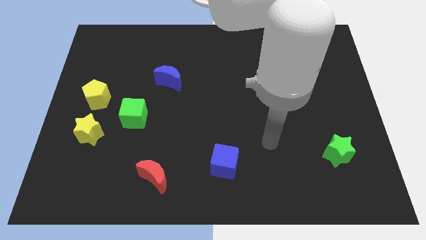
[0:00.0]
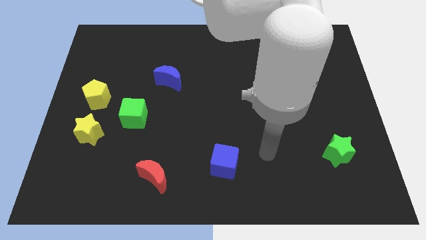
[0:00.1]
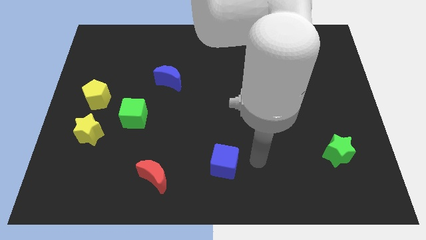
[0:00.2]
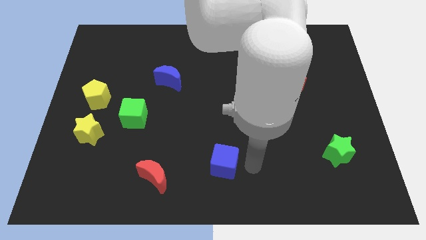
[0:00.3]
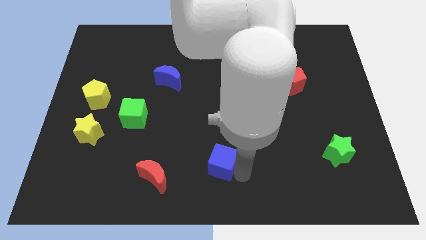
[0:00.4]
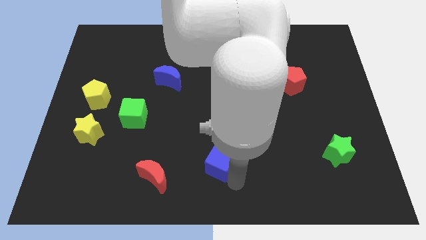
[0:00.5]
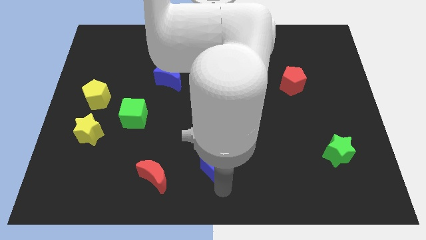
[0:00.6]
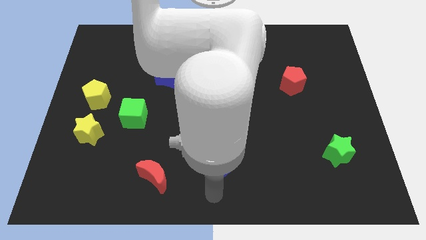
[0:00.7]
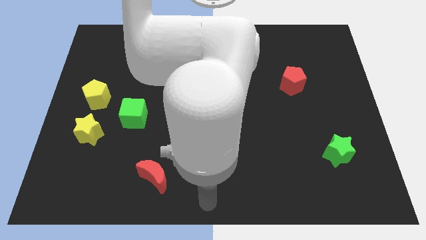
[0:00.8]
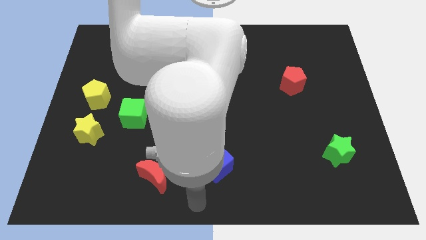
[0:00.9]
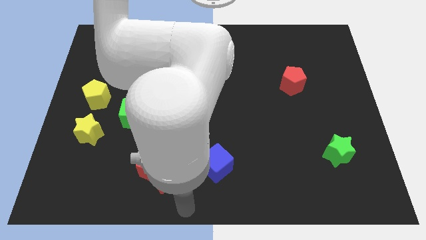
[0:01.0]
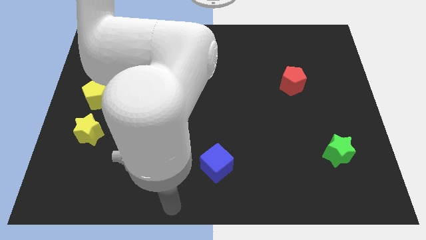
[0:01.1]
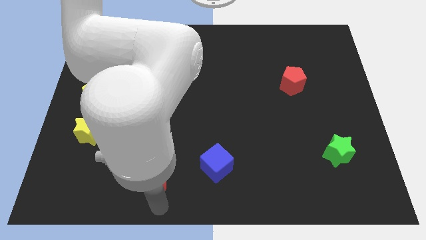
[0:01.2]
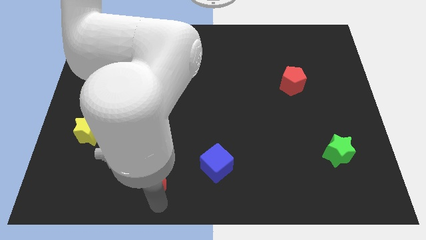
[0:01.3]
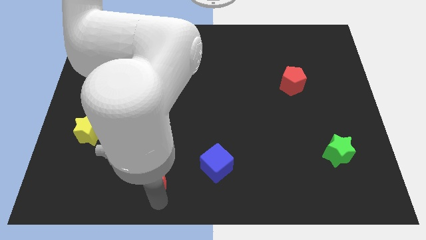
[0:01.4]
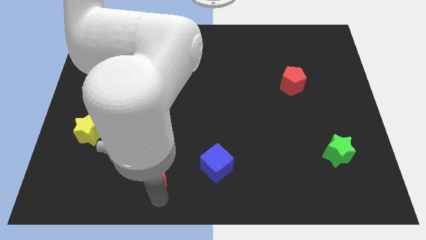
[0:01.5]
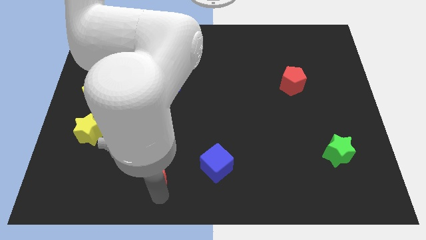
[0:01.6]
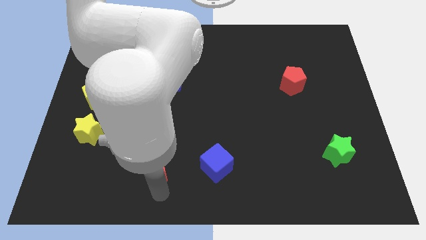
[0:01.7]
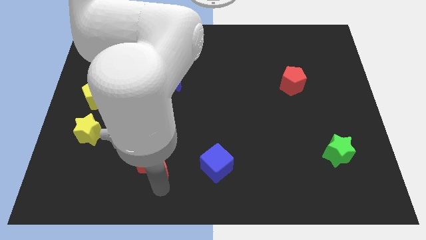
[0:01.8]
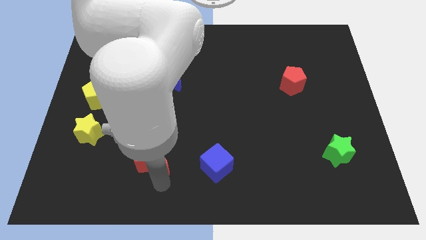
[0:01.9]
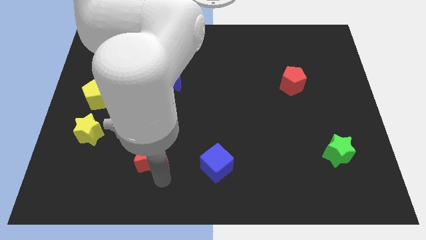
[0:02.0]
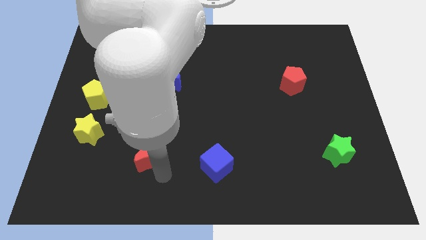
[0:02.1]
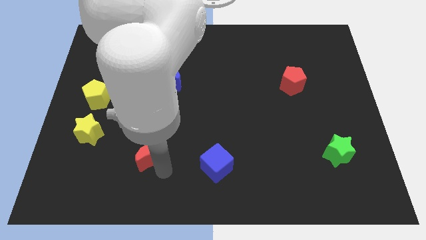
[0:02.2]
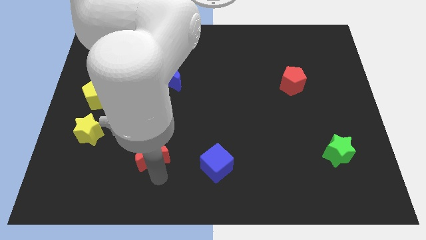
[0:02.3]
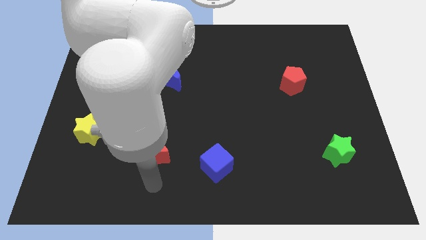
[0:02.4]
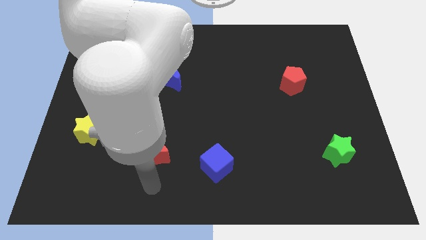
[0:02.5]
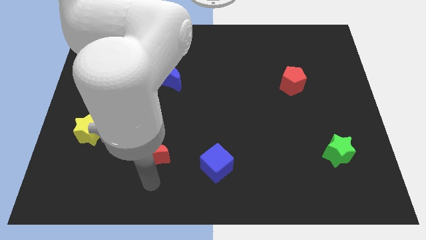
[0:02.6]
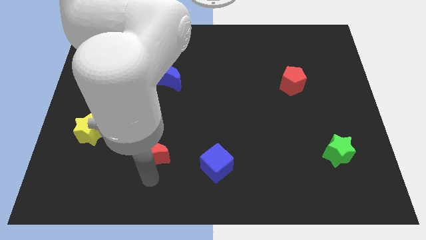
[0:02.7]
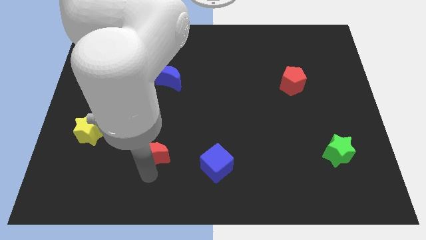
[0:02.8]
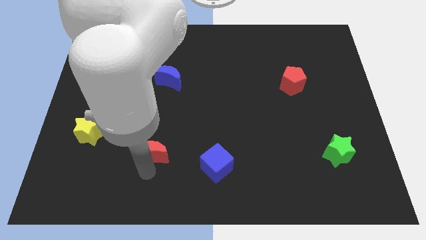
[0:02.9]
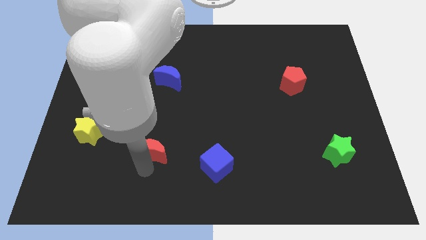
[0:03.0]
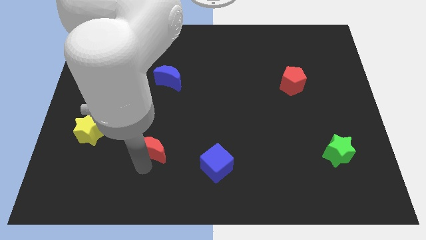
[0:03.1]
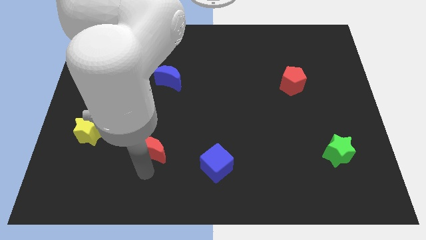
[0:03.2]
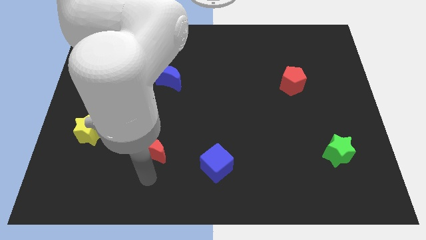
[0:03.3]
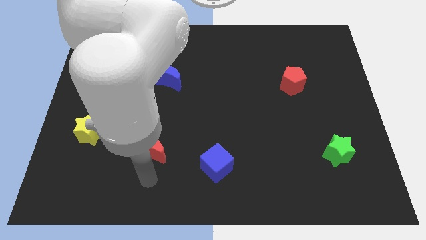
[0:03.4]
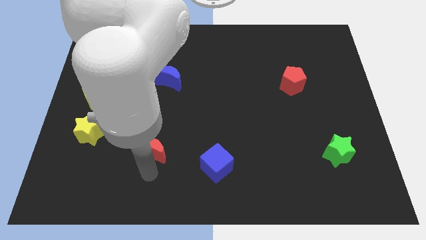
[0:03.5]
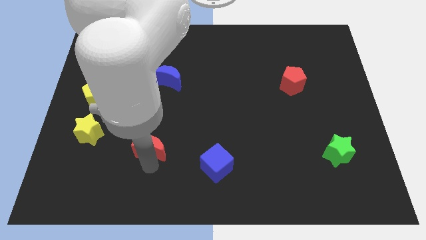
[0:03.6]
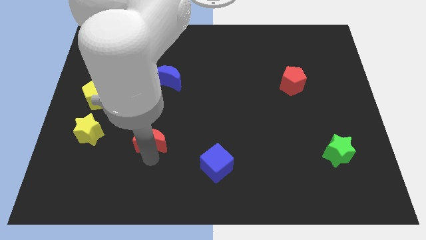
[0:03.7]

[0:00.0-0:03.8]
slide the red moon slightly upwards

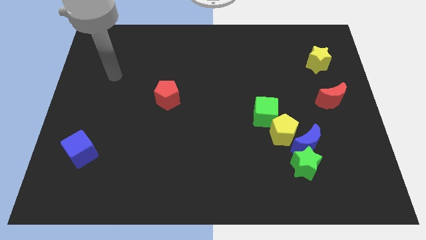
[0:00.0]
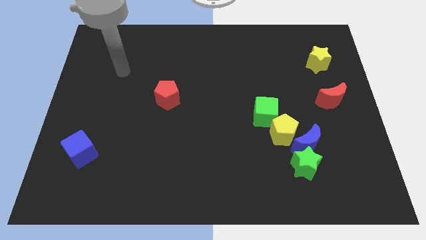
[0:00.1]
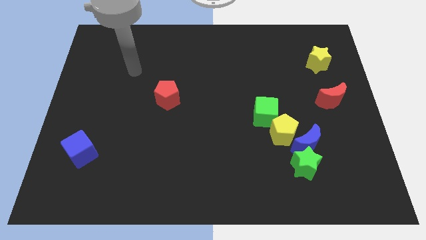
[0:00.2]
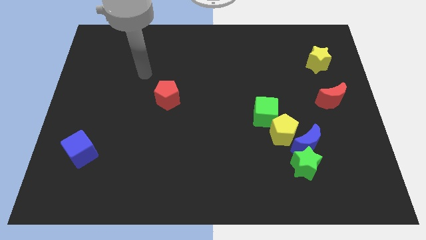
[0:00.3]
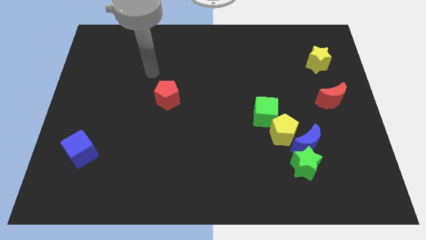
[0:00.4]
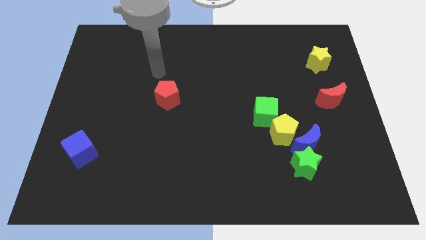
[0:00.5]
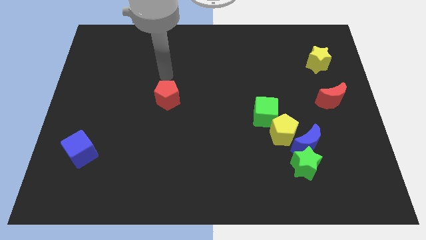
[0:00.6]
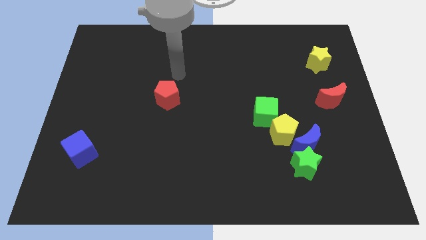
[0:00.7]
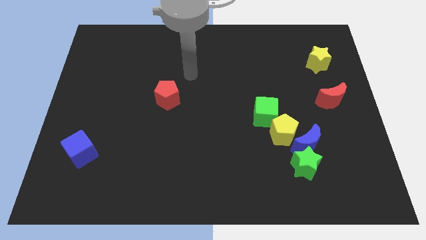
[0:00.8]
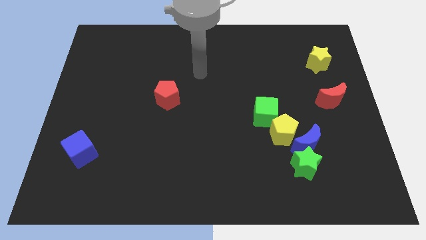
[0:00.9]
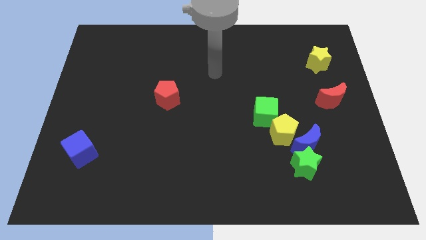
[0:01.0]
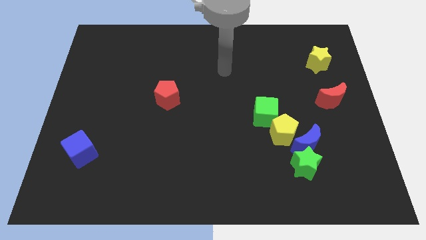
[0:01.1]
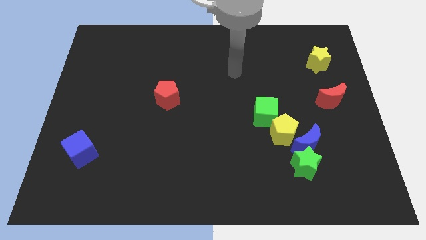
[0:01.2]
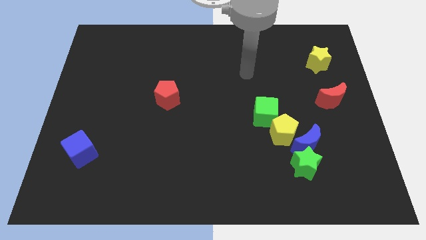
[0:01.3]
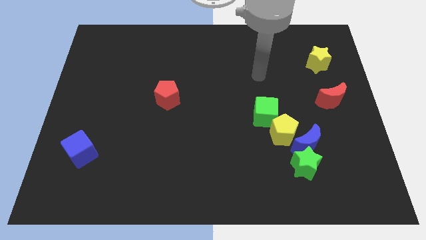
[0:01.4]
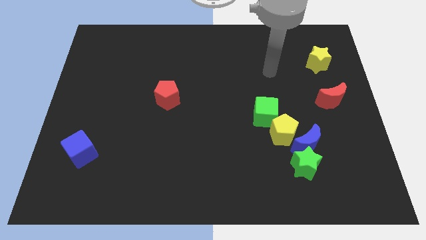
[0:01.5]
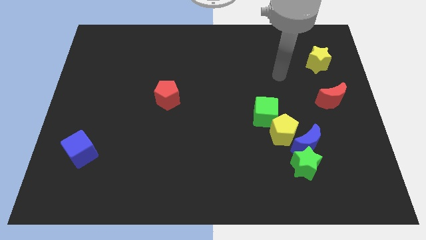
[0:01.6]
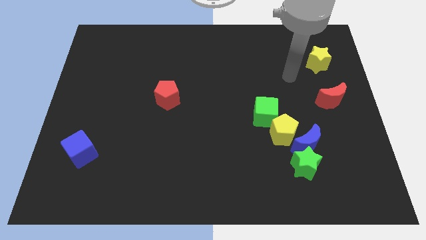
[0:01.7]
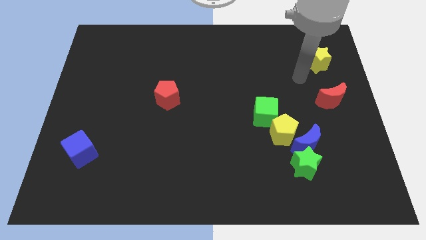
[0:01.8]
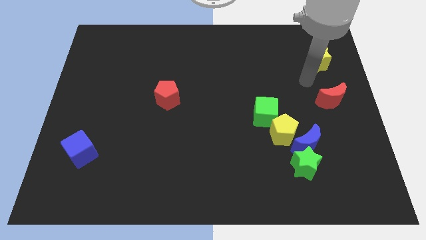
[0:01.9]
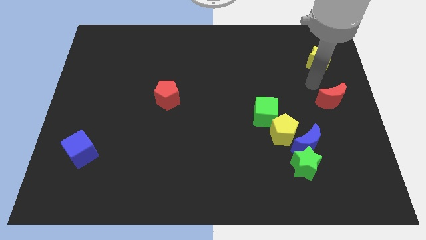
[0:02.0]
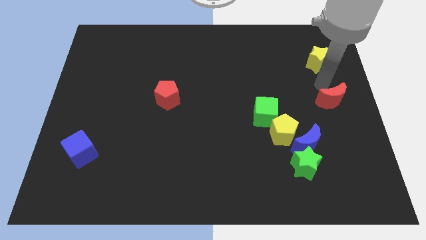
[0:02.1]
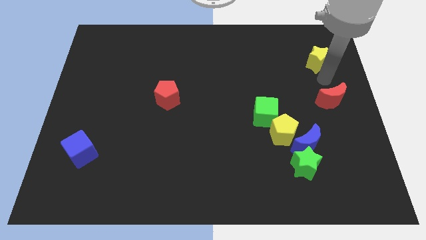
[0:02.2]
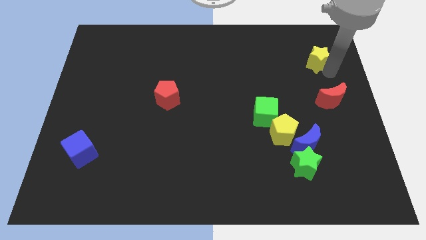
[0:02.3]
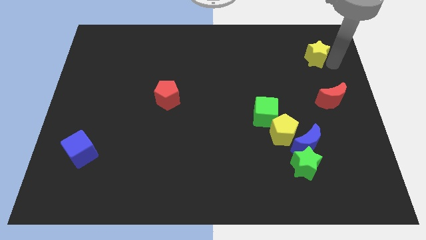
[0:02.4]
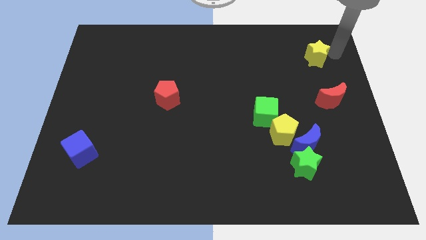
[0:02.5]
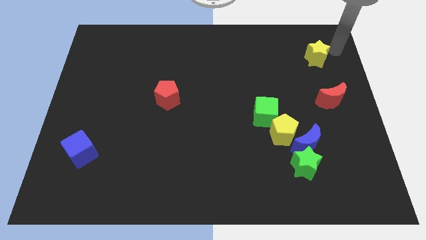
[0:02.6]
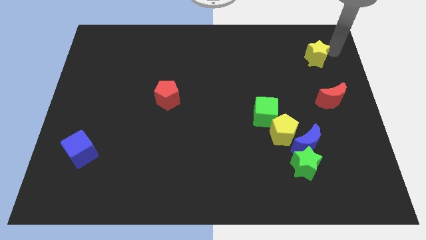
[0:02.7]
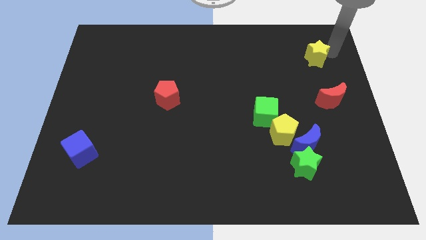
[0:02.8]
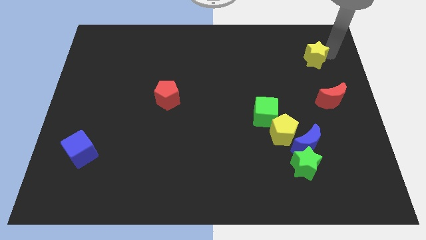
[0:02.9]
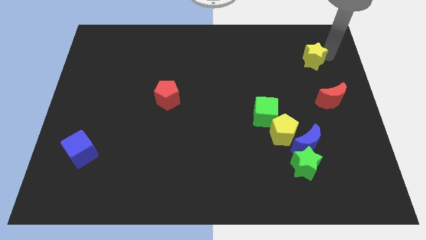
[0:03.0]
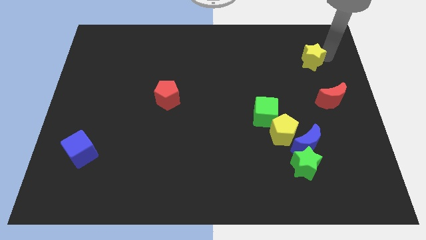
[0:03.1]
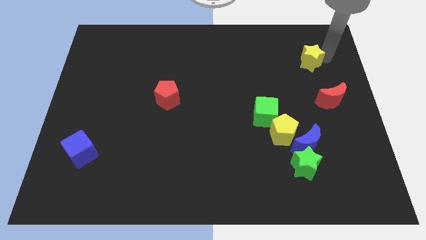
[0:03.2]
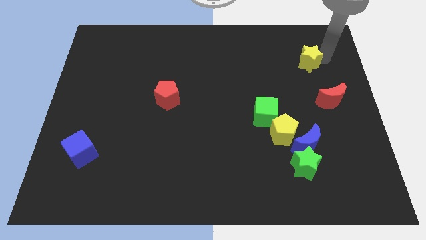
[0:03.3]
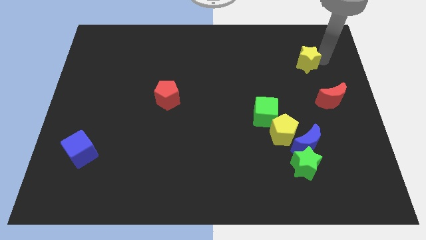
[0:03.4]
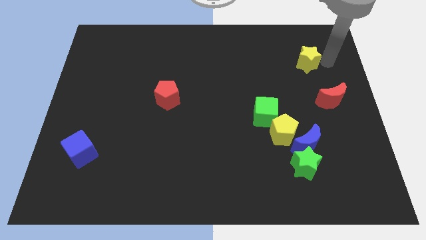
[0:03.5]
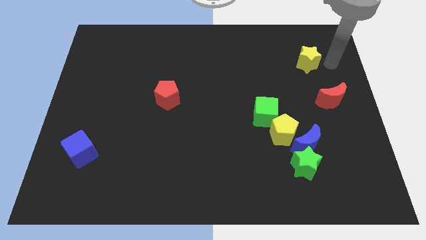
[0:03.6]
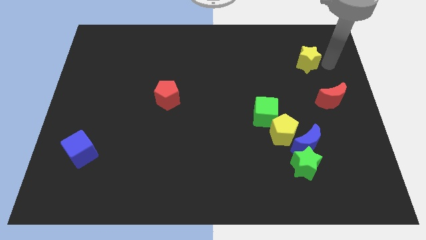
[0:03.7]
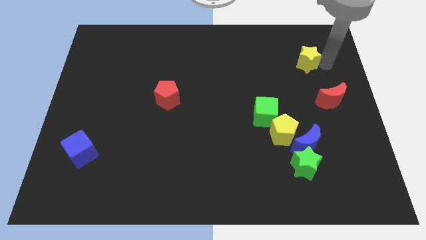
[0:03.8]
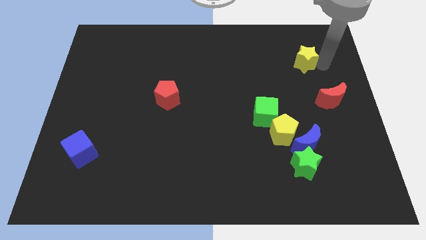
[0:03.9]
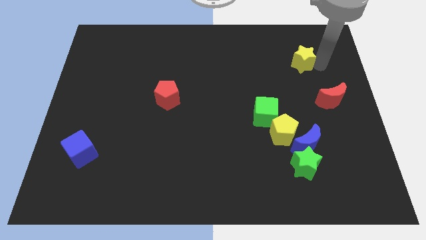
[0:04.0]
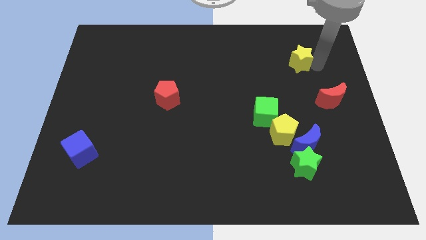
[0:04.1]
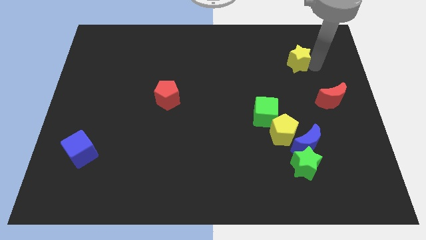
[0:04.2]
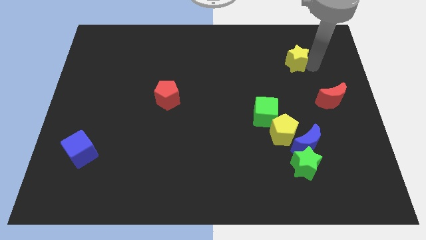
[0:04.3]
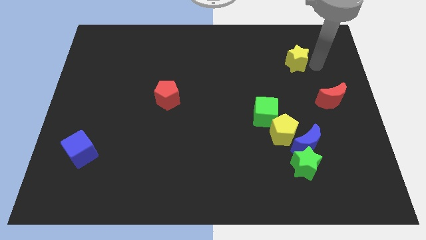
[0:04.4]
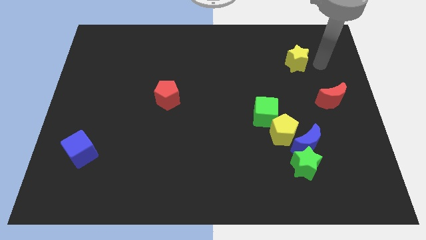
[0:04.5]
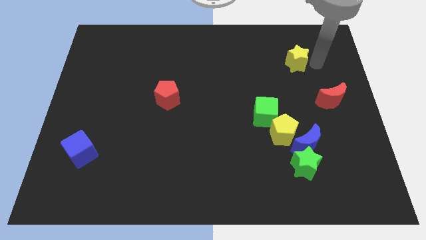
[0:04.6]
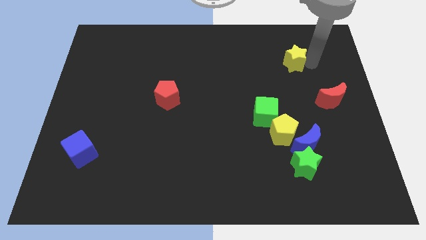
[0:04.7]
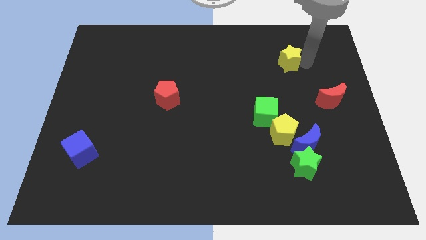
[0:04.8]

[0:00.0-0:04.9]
move the yellow star to the left somewhat
